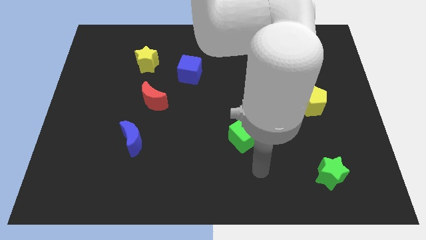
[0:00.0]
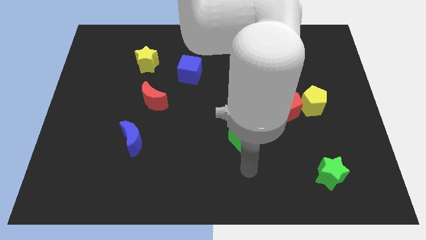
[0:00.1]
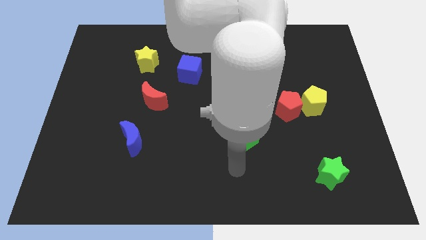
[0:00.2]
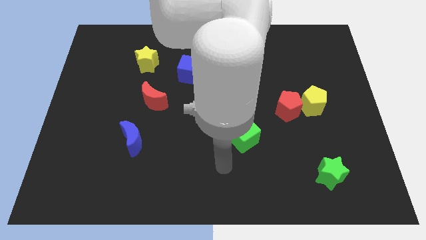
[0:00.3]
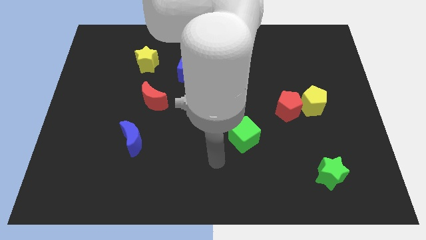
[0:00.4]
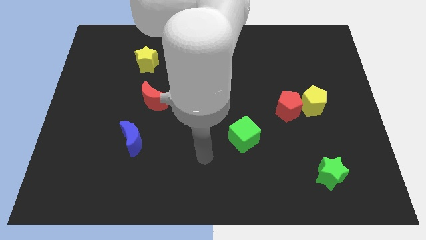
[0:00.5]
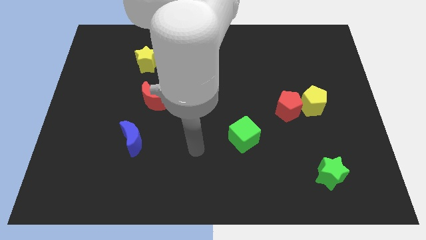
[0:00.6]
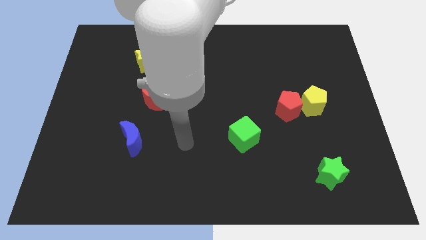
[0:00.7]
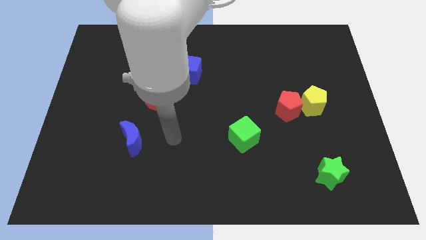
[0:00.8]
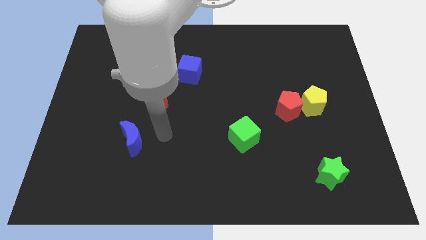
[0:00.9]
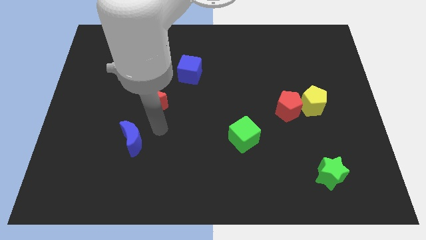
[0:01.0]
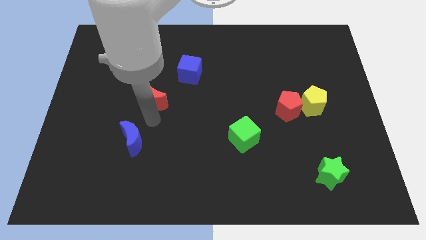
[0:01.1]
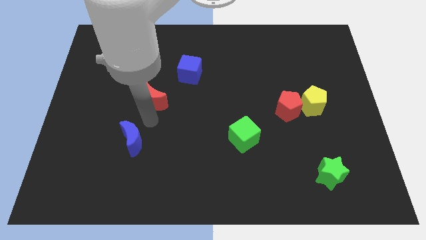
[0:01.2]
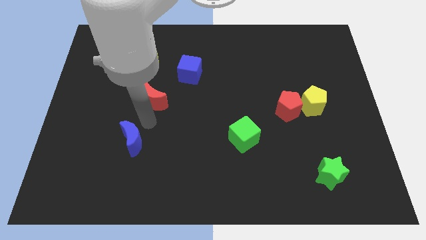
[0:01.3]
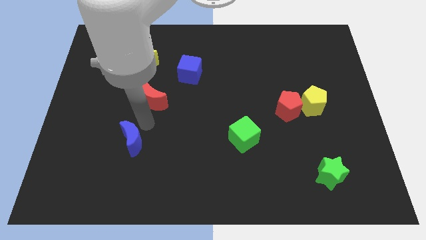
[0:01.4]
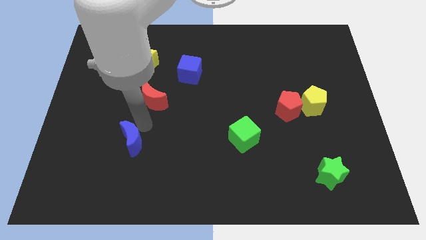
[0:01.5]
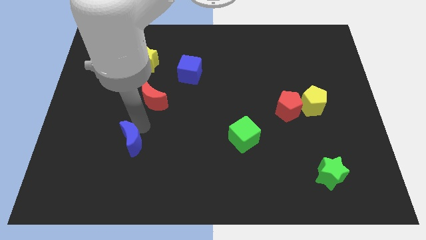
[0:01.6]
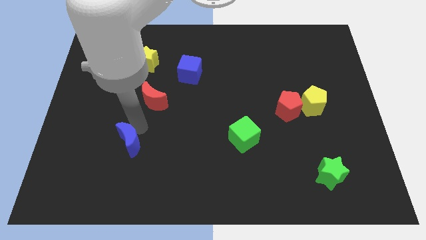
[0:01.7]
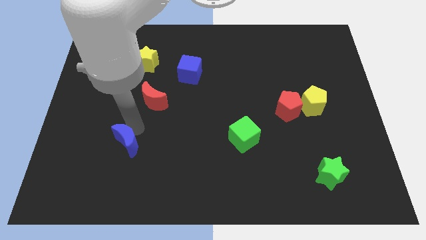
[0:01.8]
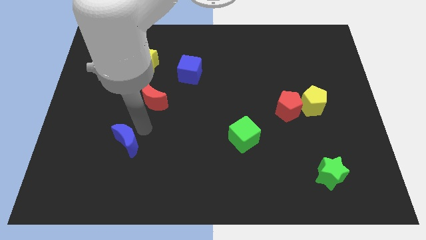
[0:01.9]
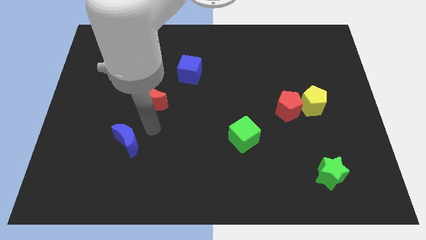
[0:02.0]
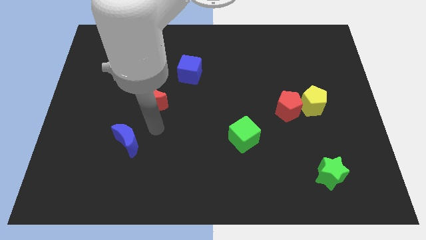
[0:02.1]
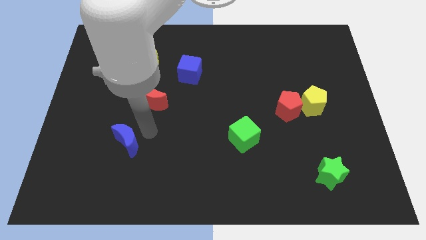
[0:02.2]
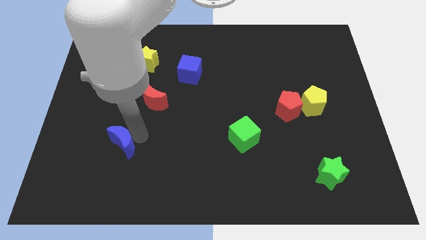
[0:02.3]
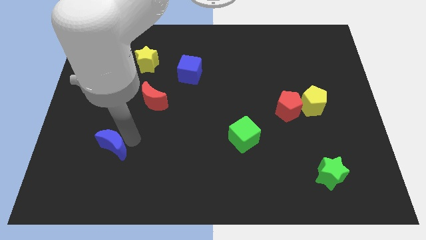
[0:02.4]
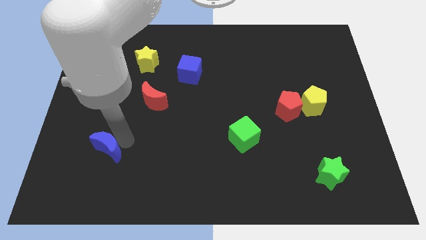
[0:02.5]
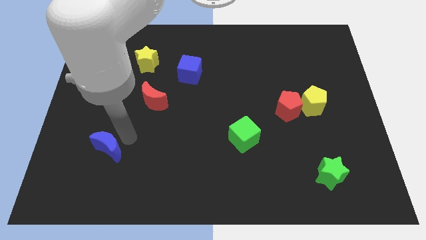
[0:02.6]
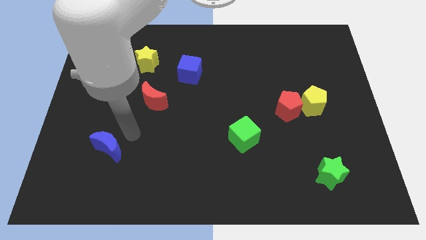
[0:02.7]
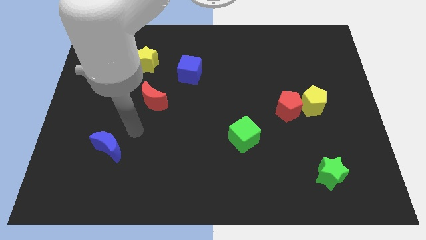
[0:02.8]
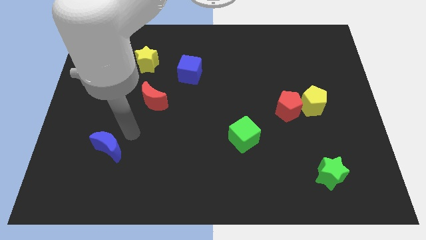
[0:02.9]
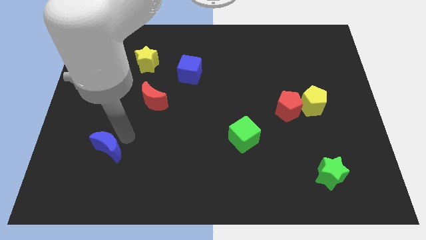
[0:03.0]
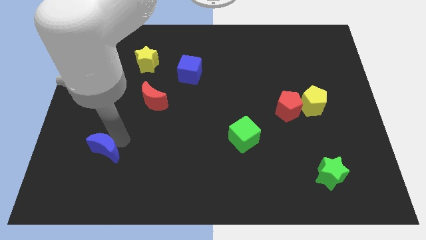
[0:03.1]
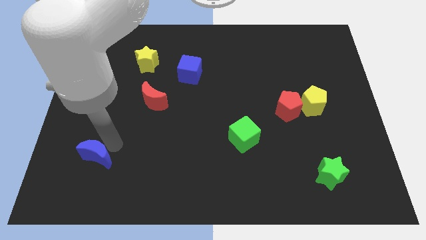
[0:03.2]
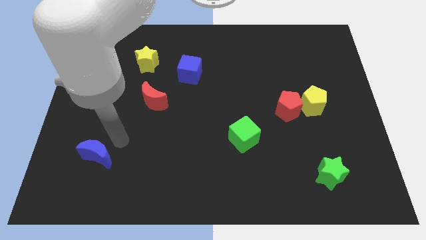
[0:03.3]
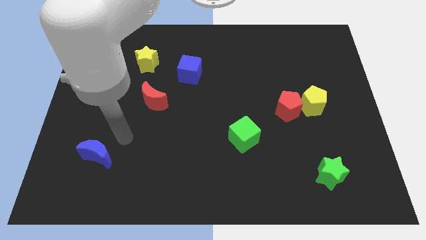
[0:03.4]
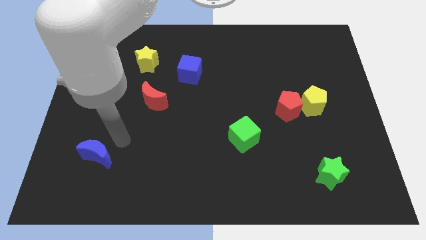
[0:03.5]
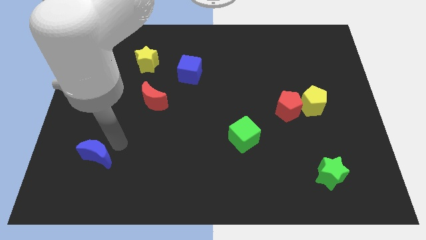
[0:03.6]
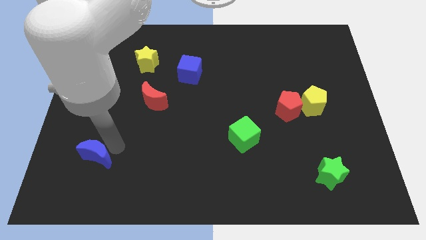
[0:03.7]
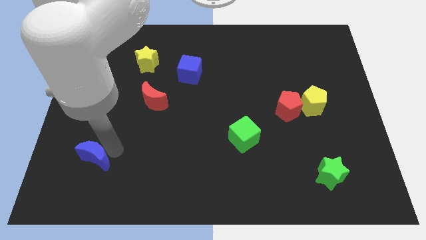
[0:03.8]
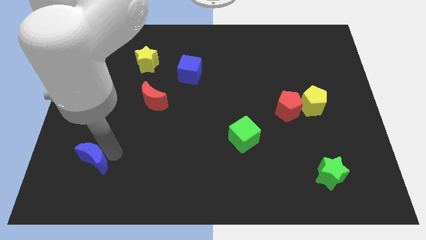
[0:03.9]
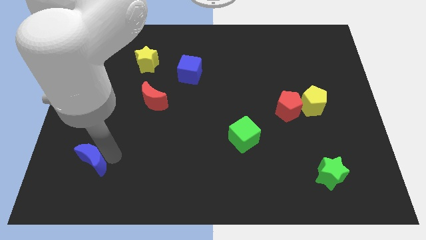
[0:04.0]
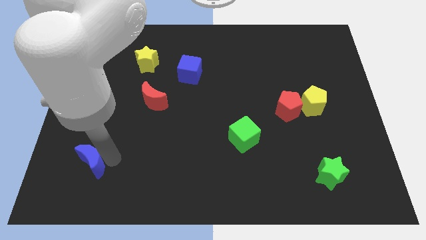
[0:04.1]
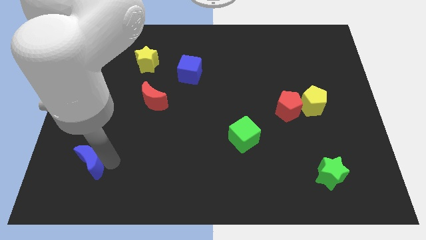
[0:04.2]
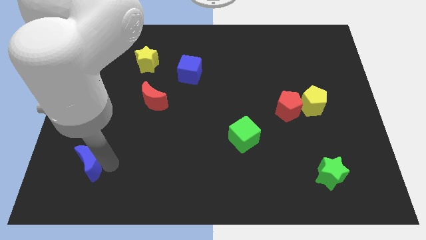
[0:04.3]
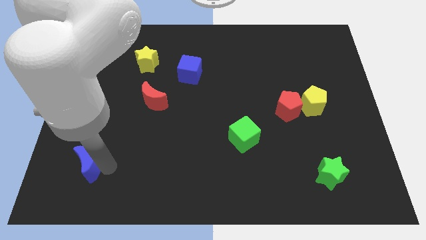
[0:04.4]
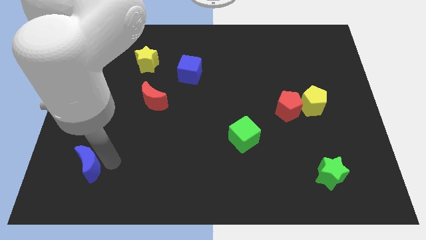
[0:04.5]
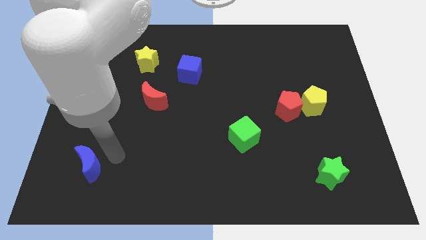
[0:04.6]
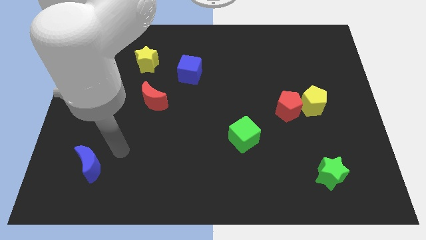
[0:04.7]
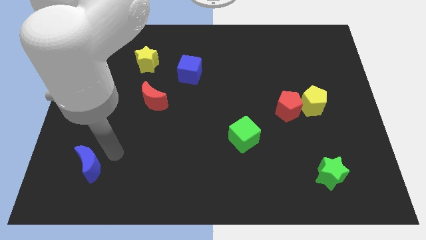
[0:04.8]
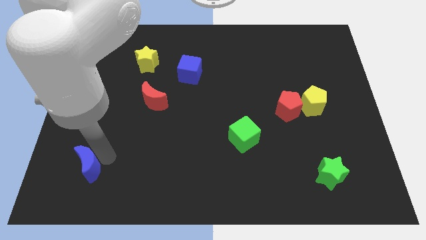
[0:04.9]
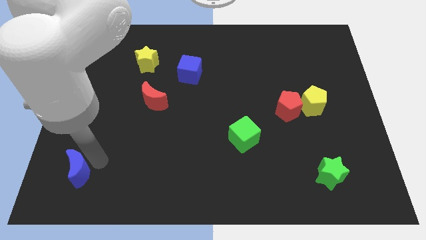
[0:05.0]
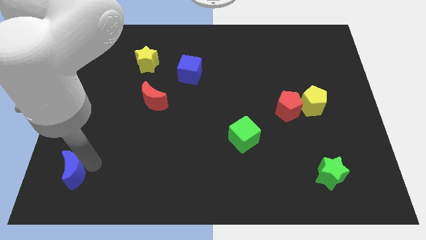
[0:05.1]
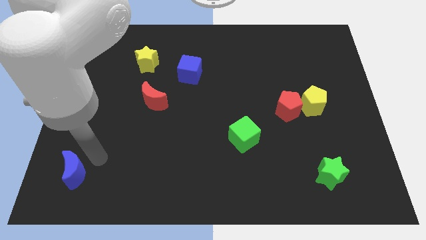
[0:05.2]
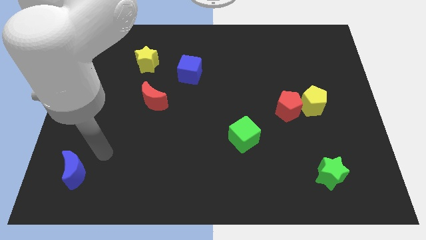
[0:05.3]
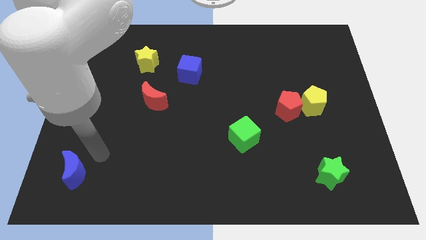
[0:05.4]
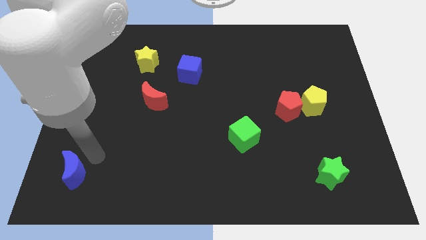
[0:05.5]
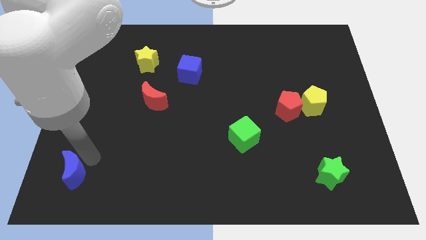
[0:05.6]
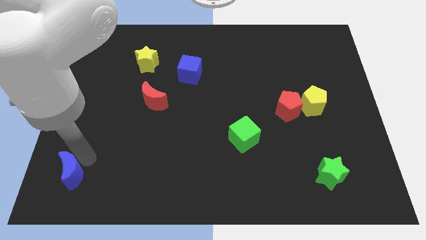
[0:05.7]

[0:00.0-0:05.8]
move the blue moon to the bottom left corner

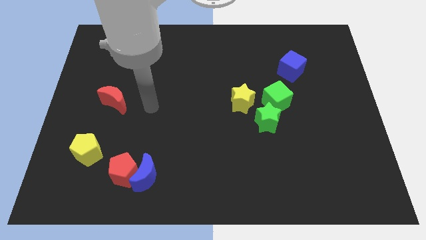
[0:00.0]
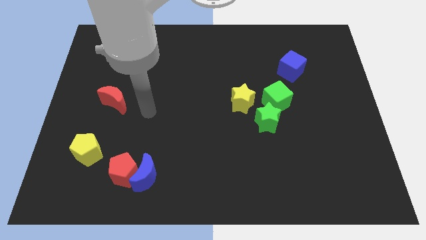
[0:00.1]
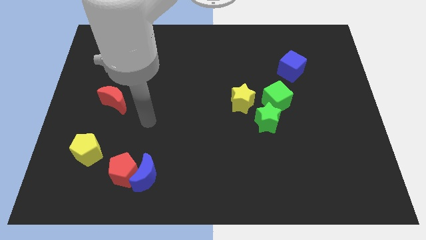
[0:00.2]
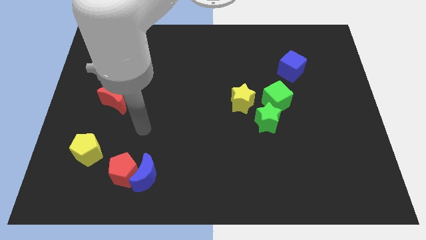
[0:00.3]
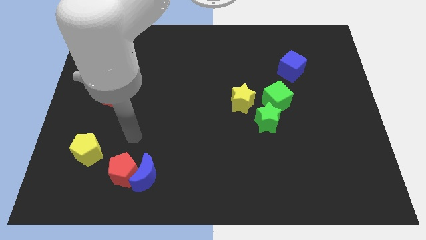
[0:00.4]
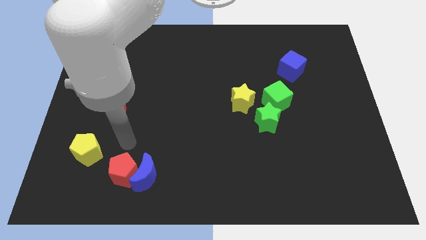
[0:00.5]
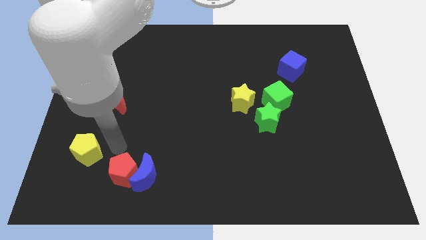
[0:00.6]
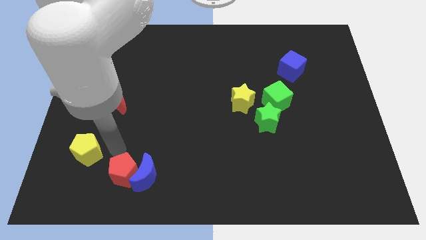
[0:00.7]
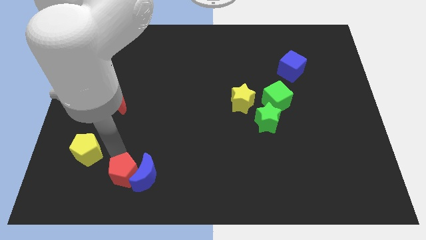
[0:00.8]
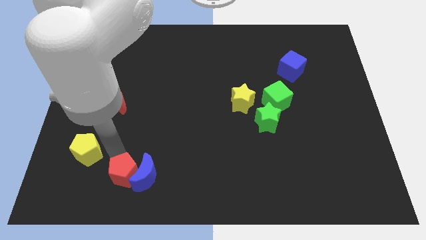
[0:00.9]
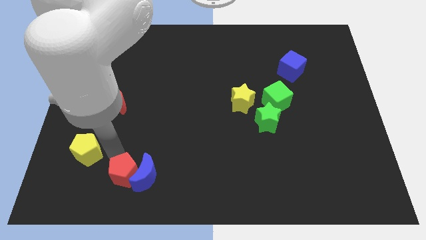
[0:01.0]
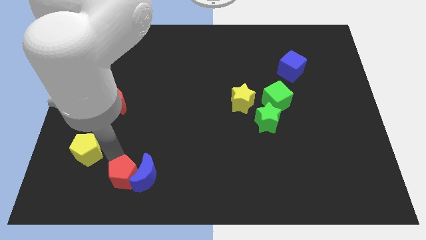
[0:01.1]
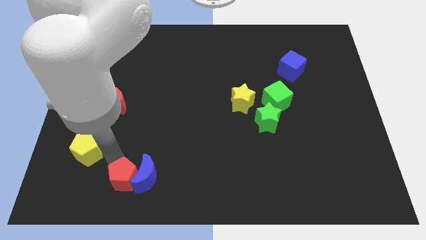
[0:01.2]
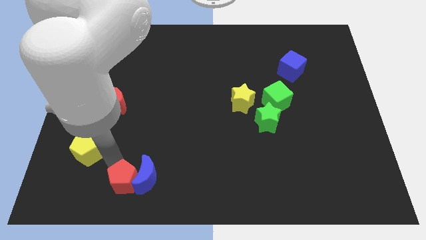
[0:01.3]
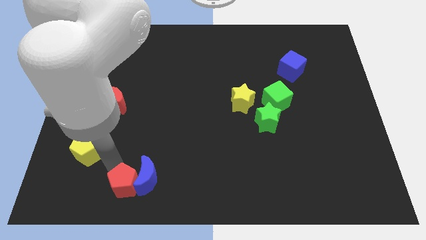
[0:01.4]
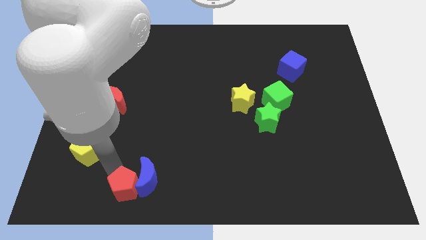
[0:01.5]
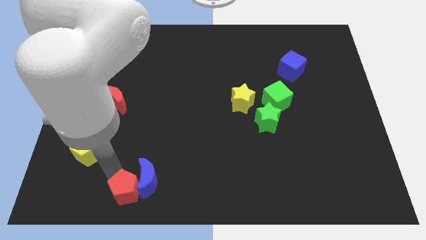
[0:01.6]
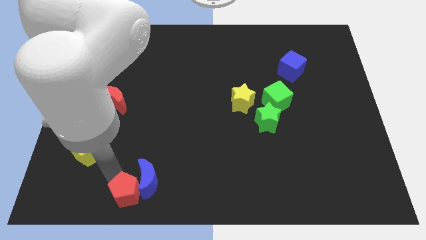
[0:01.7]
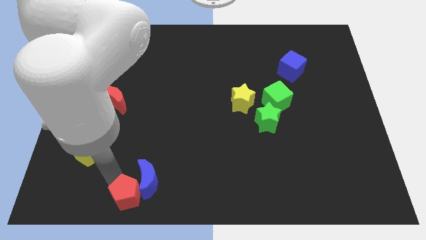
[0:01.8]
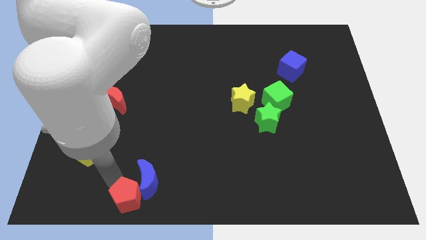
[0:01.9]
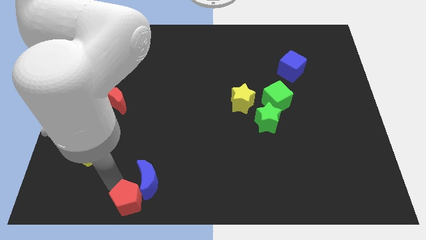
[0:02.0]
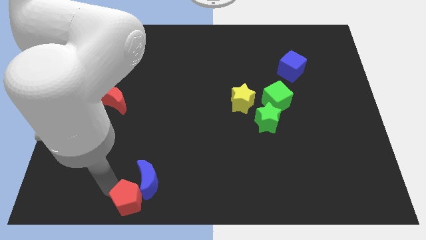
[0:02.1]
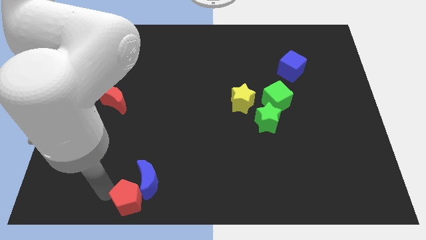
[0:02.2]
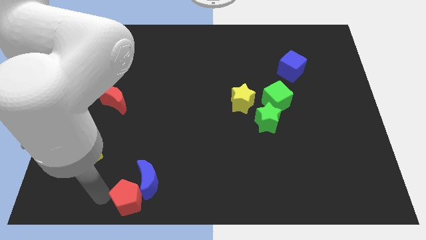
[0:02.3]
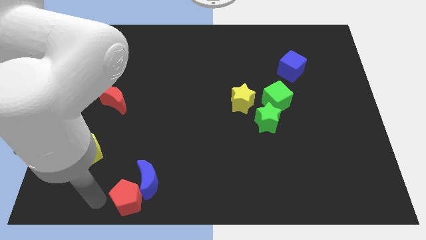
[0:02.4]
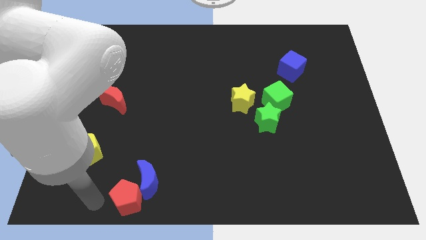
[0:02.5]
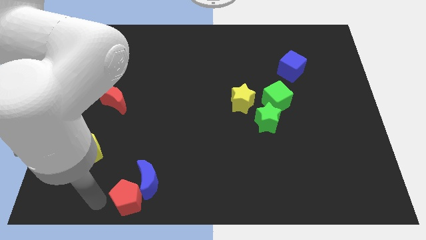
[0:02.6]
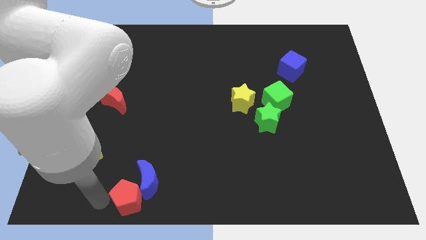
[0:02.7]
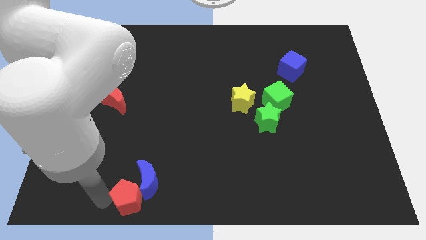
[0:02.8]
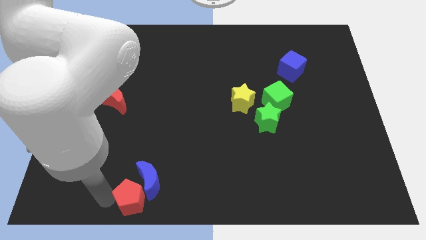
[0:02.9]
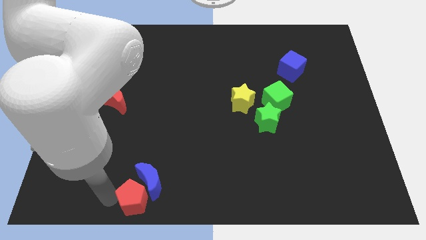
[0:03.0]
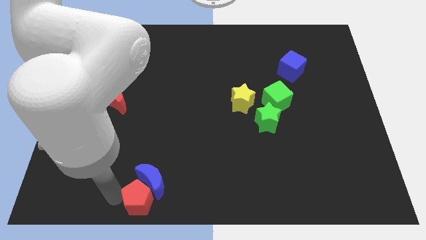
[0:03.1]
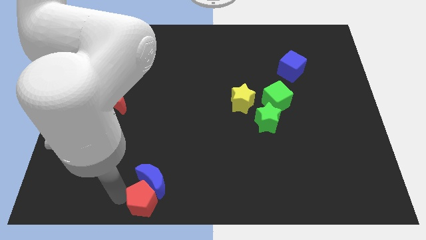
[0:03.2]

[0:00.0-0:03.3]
move the red pentagon to the bottom
